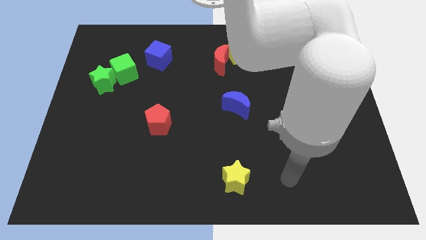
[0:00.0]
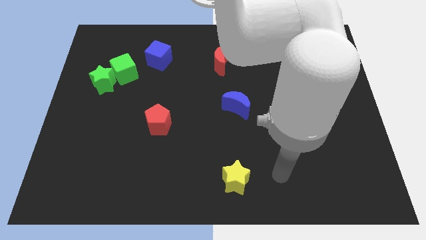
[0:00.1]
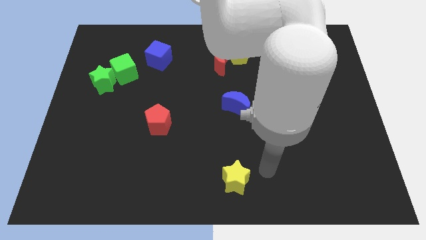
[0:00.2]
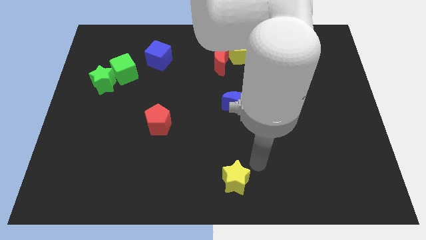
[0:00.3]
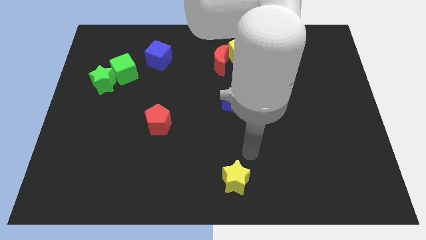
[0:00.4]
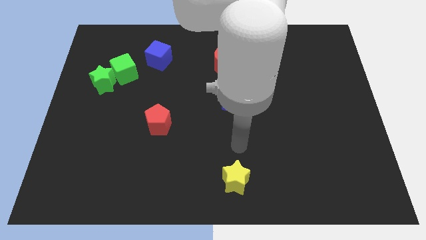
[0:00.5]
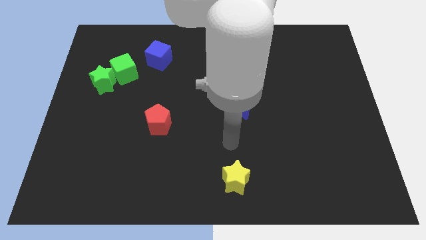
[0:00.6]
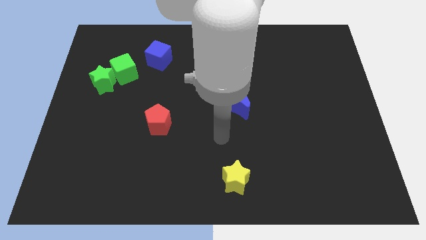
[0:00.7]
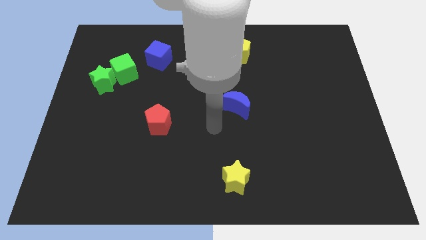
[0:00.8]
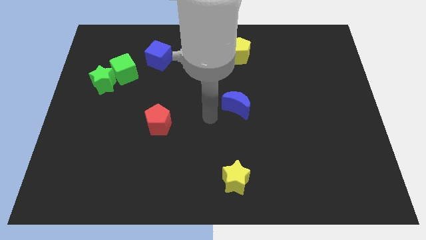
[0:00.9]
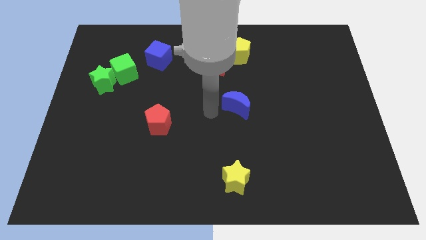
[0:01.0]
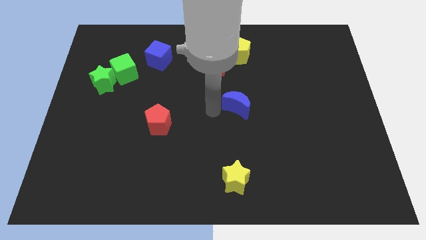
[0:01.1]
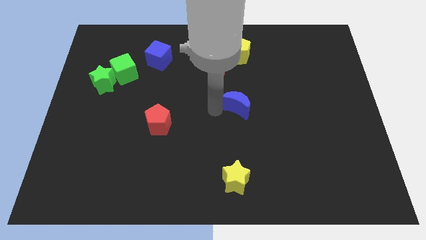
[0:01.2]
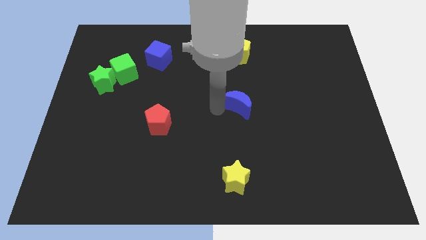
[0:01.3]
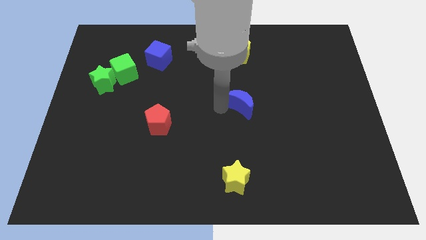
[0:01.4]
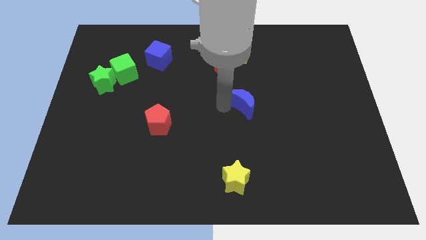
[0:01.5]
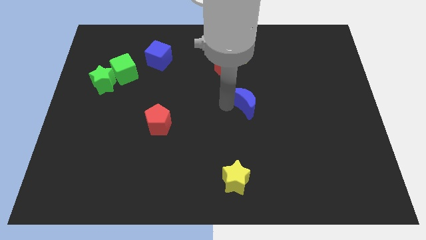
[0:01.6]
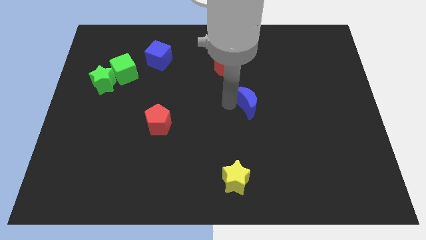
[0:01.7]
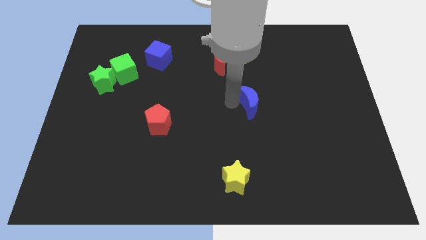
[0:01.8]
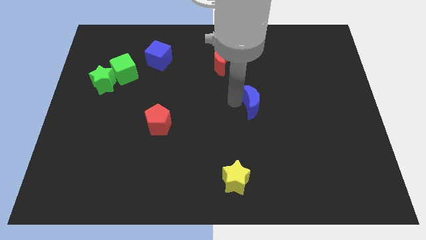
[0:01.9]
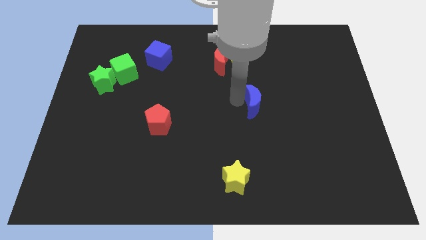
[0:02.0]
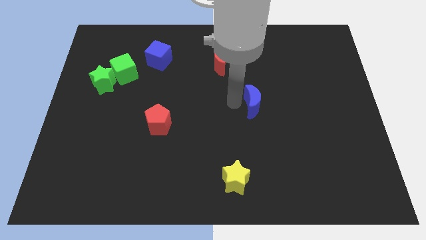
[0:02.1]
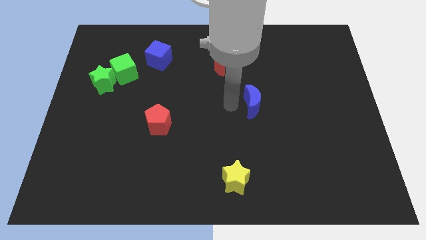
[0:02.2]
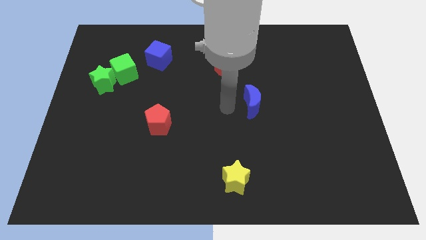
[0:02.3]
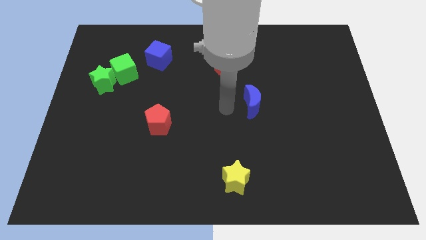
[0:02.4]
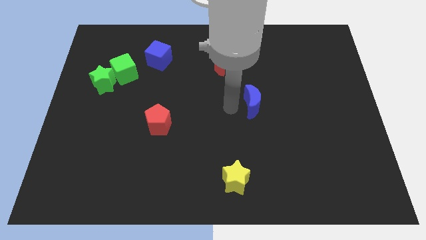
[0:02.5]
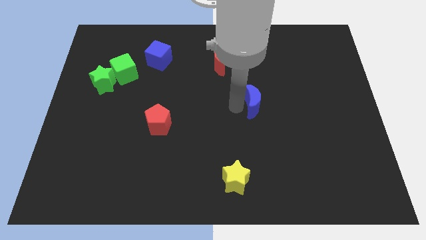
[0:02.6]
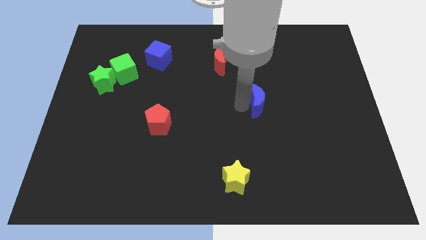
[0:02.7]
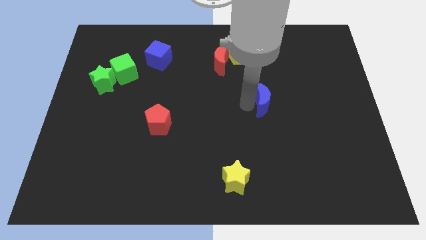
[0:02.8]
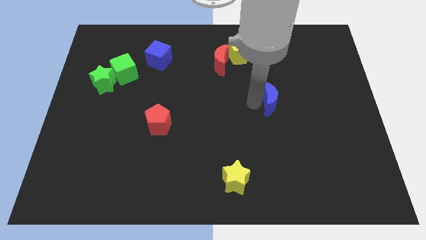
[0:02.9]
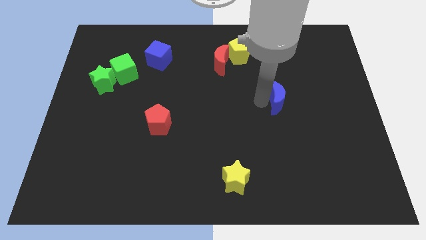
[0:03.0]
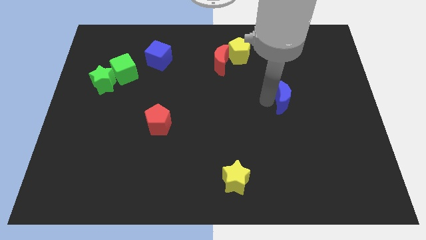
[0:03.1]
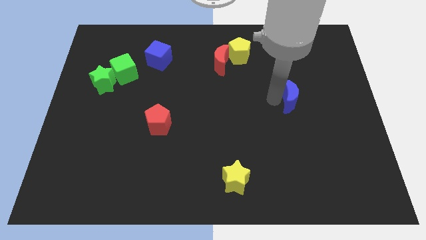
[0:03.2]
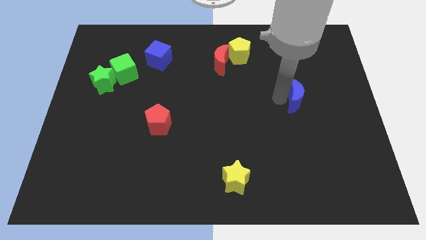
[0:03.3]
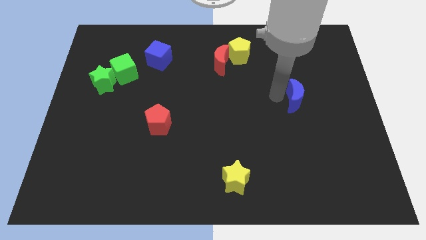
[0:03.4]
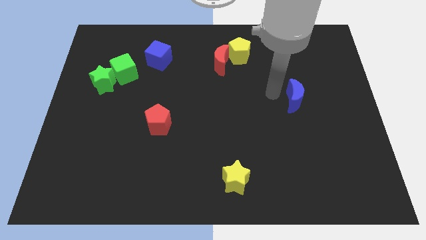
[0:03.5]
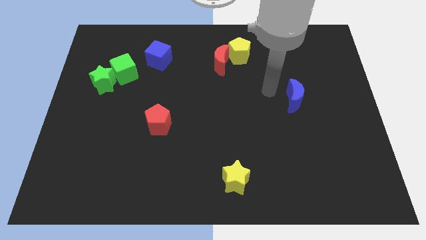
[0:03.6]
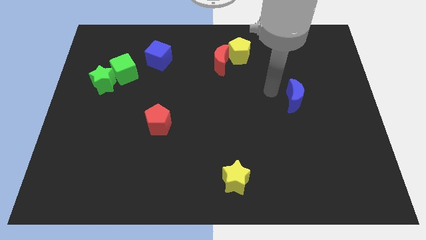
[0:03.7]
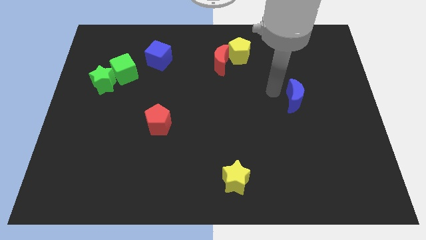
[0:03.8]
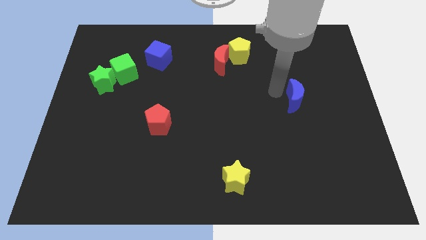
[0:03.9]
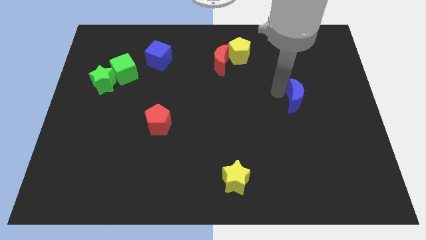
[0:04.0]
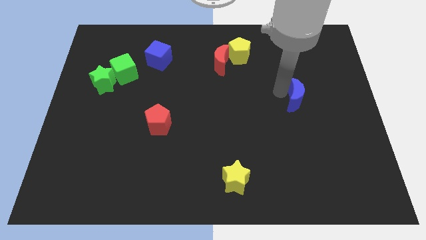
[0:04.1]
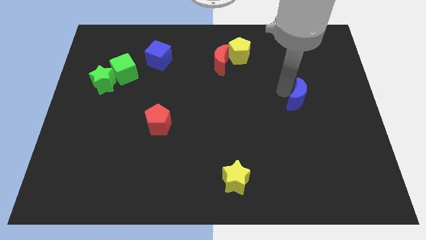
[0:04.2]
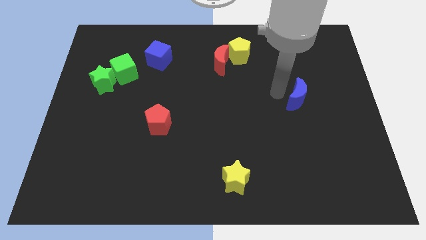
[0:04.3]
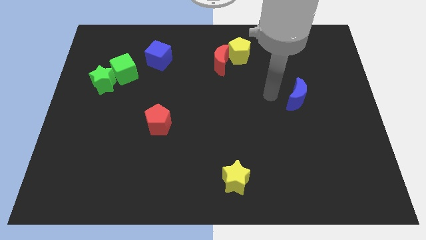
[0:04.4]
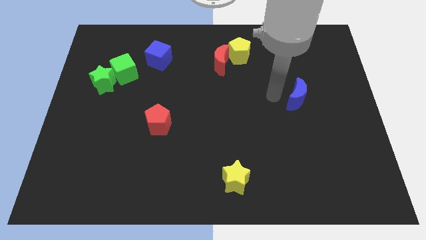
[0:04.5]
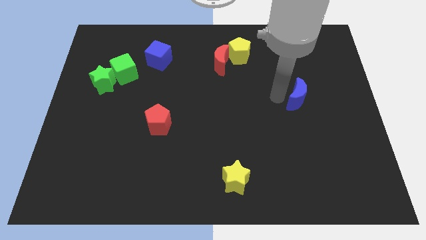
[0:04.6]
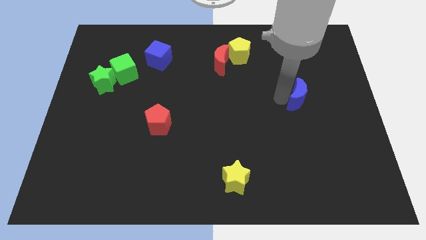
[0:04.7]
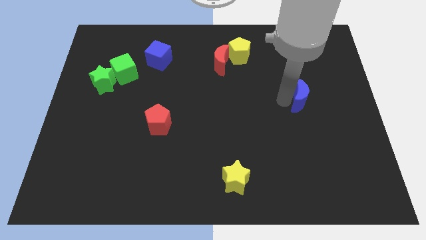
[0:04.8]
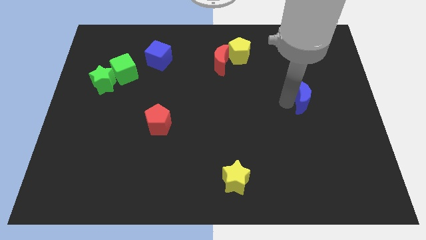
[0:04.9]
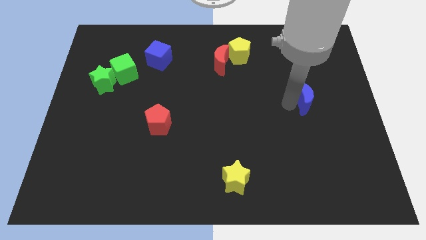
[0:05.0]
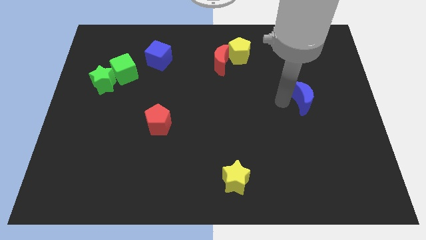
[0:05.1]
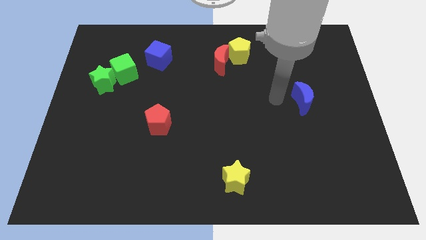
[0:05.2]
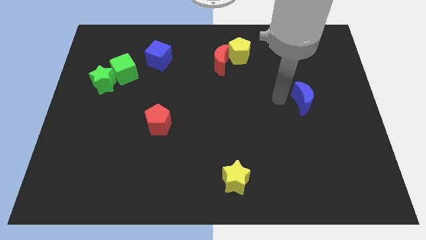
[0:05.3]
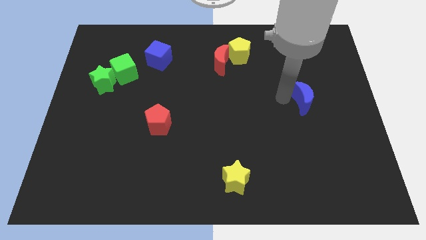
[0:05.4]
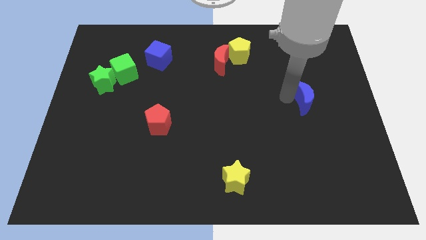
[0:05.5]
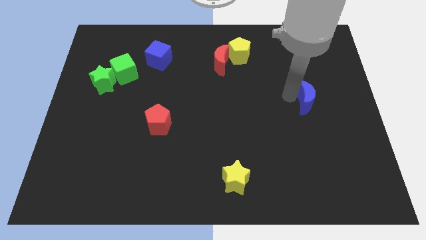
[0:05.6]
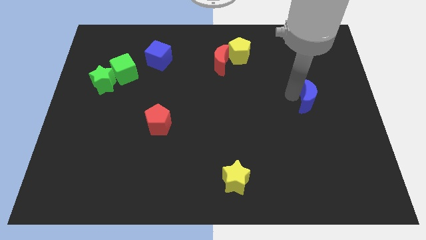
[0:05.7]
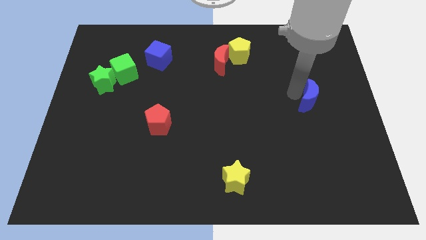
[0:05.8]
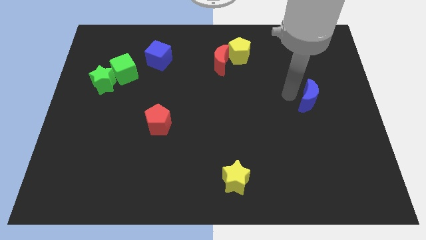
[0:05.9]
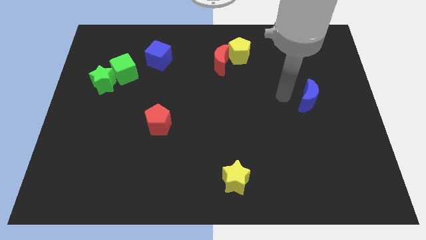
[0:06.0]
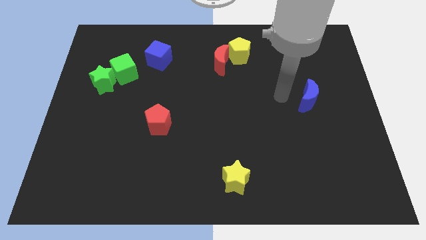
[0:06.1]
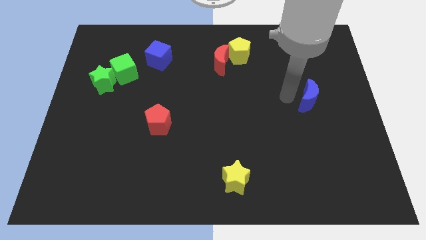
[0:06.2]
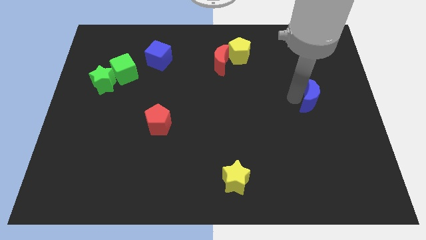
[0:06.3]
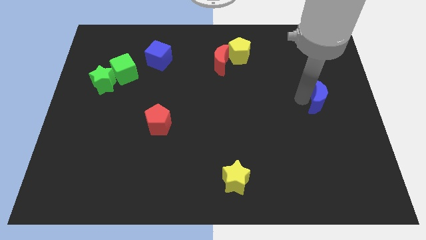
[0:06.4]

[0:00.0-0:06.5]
move the blue moon to the right side
